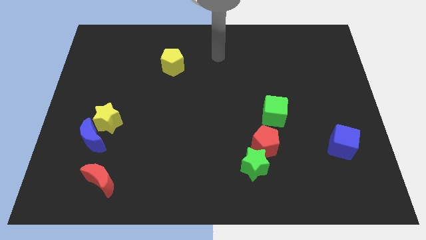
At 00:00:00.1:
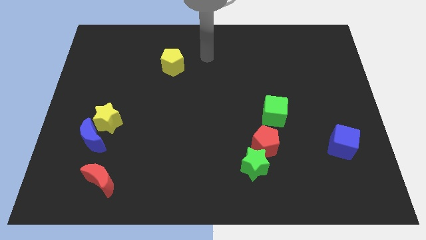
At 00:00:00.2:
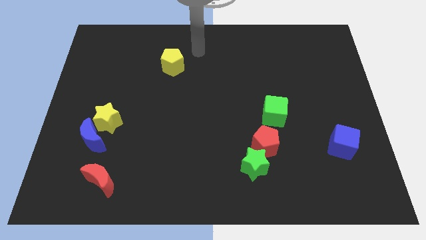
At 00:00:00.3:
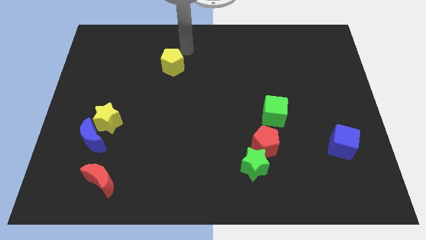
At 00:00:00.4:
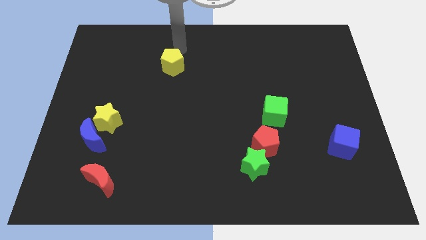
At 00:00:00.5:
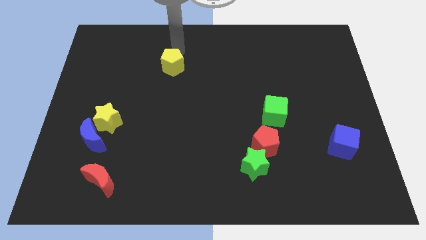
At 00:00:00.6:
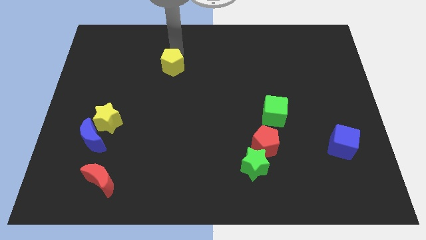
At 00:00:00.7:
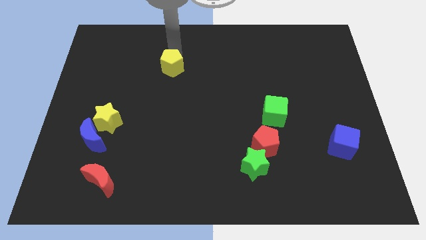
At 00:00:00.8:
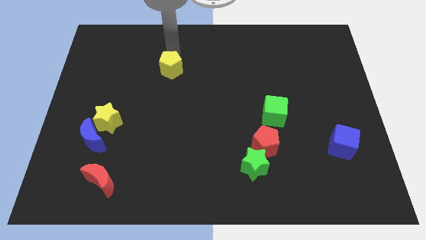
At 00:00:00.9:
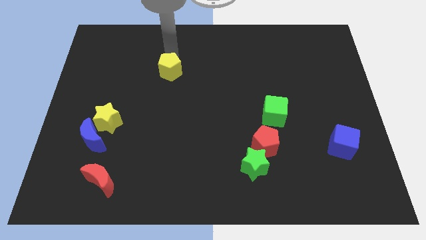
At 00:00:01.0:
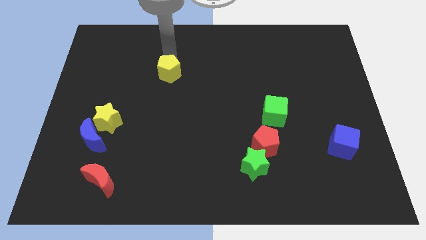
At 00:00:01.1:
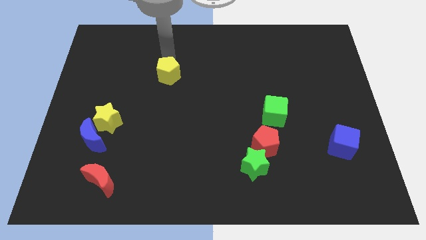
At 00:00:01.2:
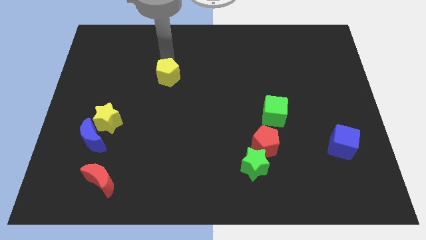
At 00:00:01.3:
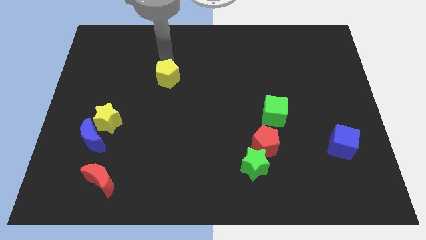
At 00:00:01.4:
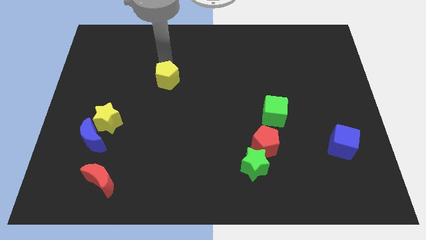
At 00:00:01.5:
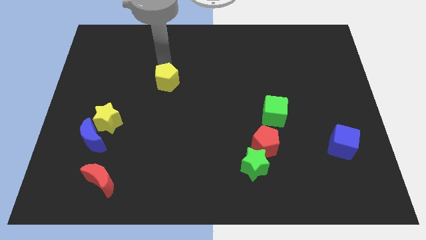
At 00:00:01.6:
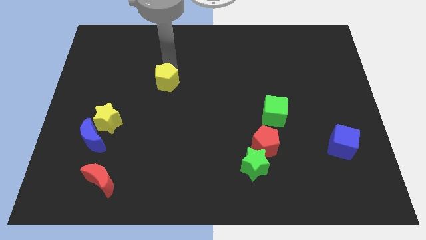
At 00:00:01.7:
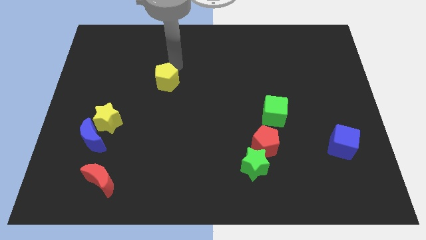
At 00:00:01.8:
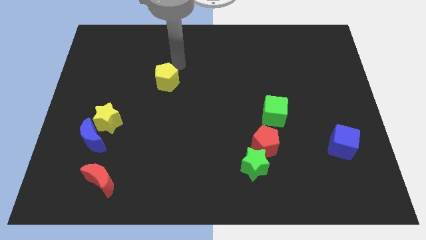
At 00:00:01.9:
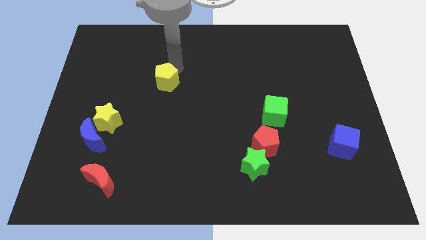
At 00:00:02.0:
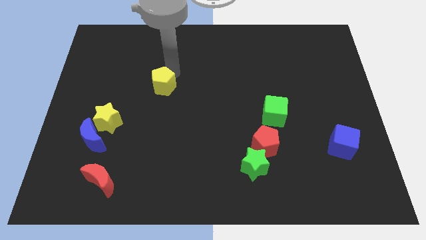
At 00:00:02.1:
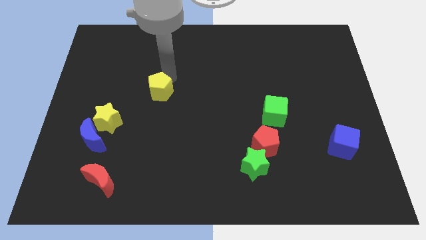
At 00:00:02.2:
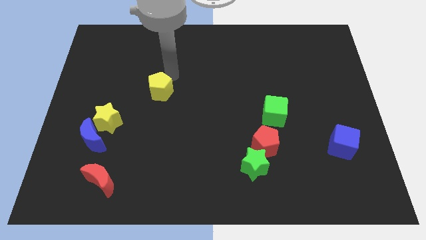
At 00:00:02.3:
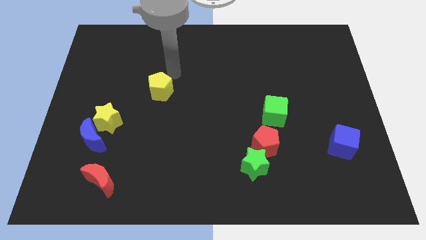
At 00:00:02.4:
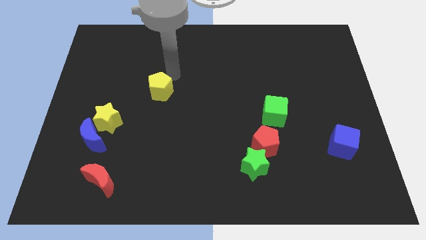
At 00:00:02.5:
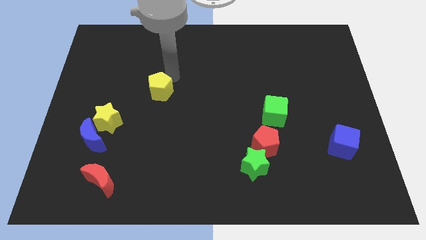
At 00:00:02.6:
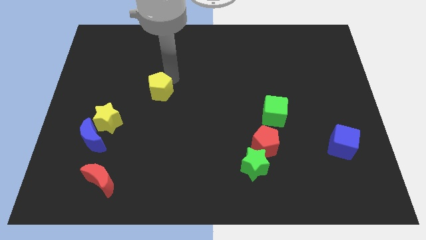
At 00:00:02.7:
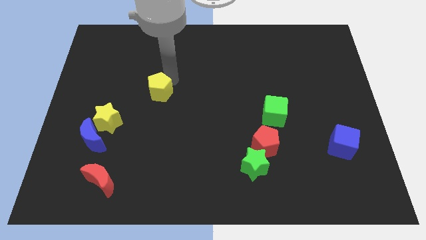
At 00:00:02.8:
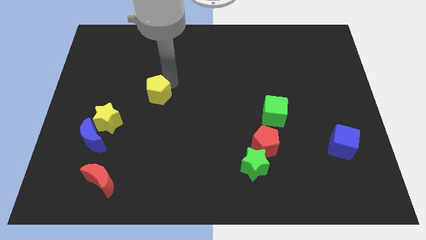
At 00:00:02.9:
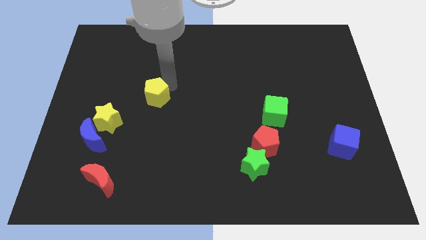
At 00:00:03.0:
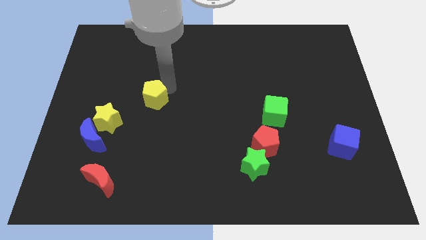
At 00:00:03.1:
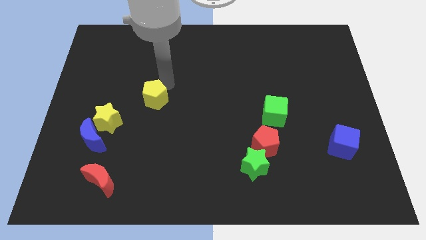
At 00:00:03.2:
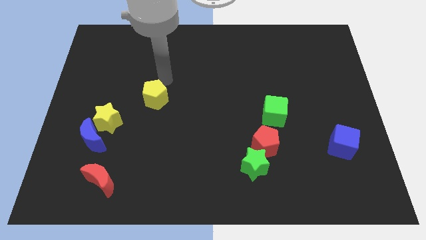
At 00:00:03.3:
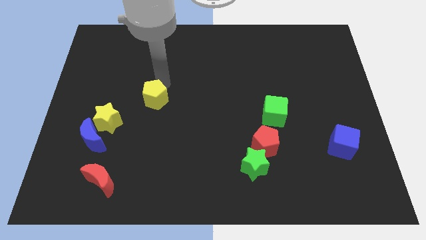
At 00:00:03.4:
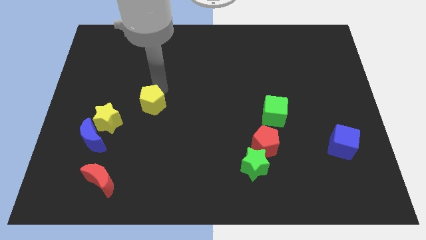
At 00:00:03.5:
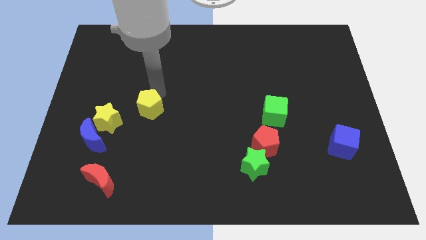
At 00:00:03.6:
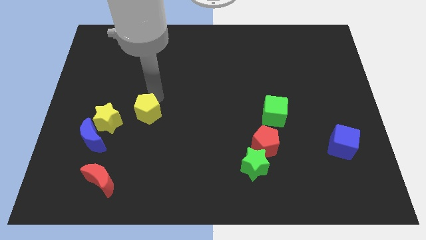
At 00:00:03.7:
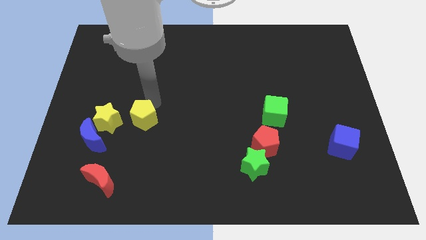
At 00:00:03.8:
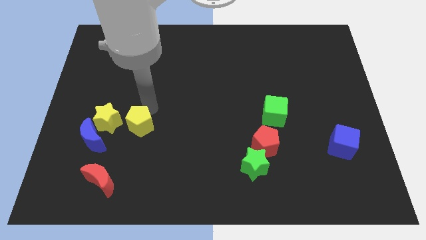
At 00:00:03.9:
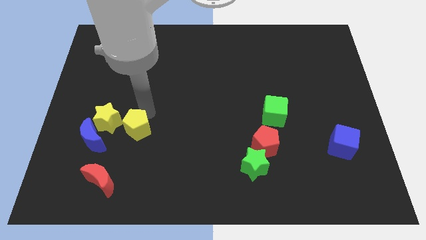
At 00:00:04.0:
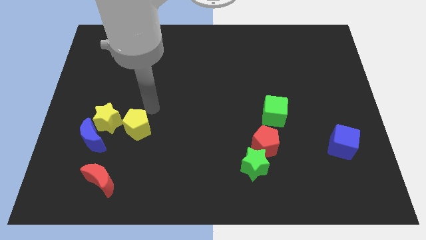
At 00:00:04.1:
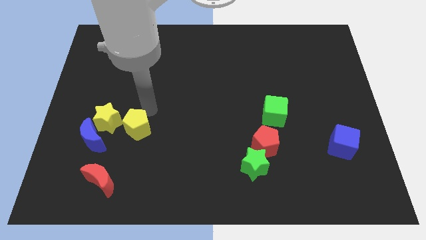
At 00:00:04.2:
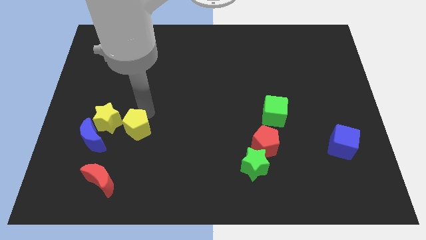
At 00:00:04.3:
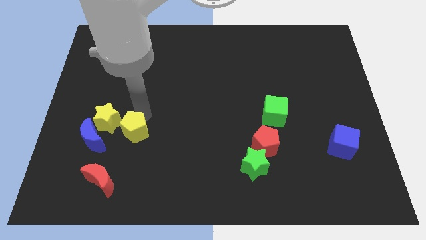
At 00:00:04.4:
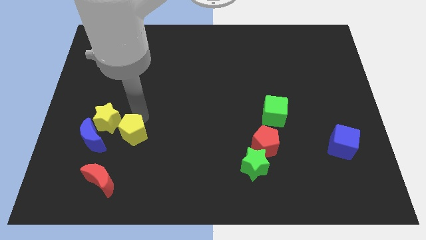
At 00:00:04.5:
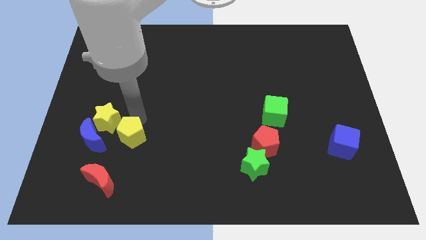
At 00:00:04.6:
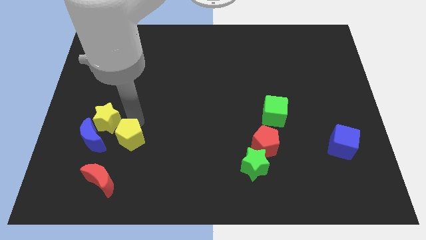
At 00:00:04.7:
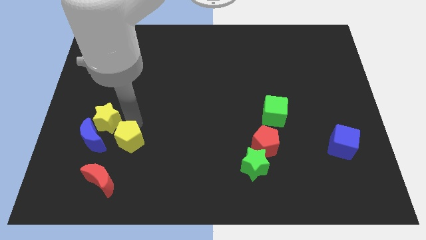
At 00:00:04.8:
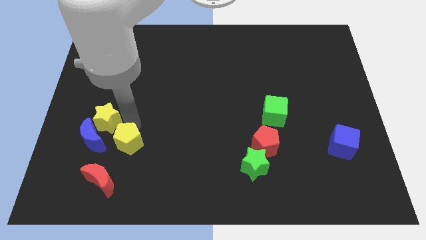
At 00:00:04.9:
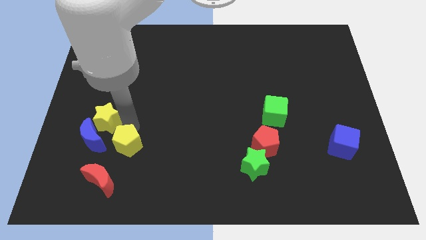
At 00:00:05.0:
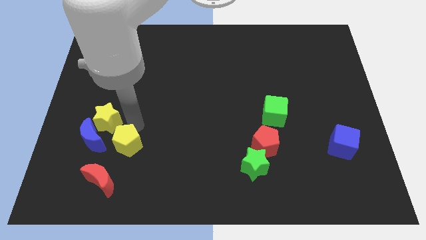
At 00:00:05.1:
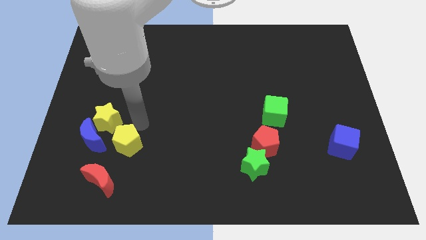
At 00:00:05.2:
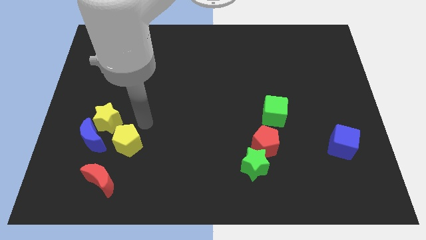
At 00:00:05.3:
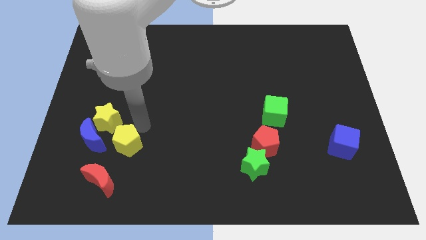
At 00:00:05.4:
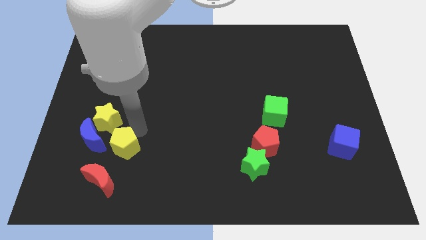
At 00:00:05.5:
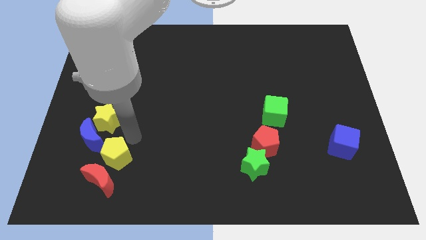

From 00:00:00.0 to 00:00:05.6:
slide the yellow pentagon close to the red moon
